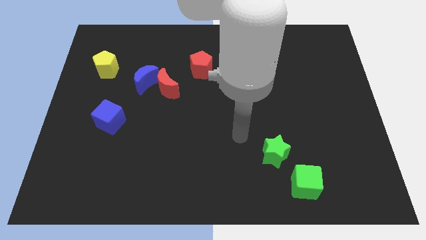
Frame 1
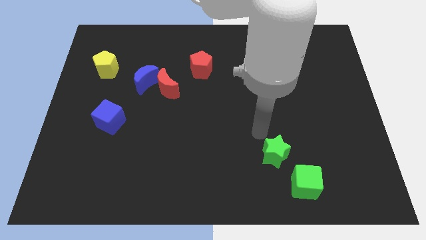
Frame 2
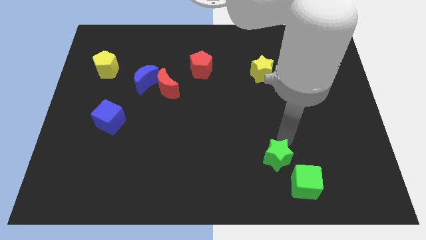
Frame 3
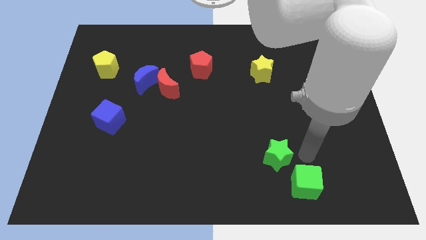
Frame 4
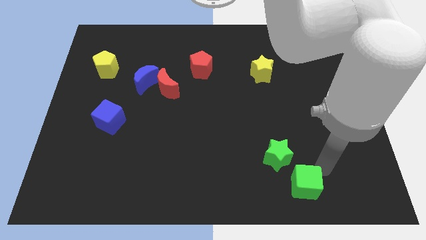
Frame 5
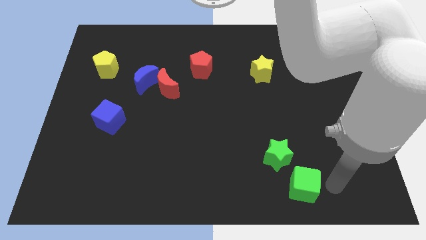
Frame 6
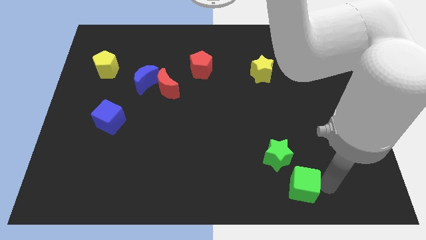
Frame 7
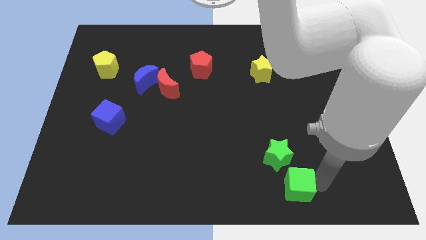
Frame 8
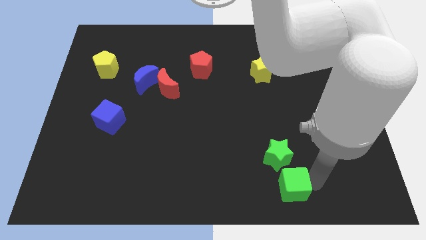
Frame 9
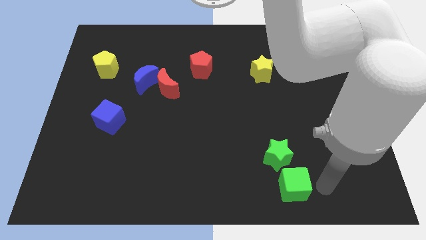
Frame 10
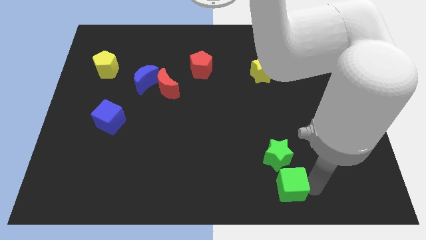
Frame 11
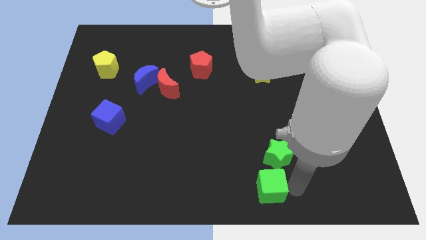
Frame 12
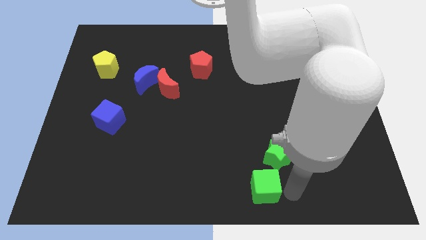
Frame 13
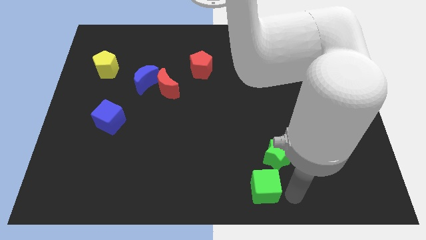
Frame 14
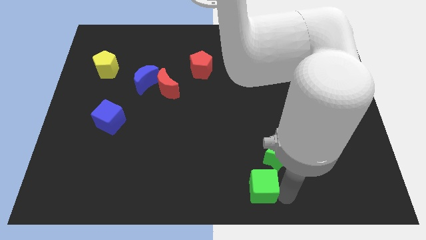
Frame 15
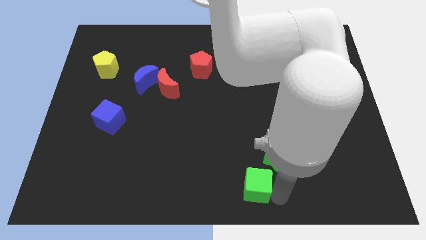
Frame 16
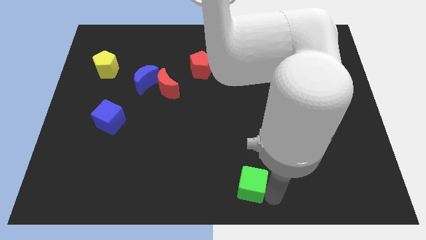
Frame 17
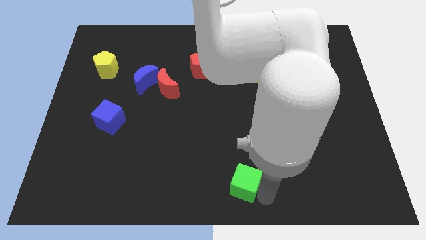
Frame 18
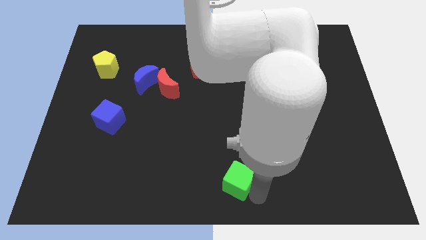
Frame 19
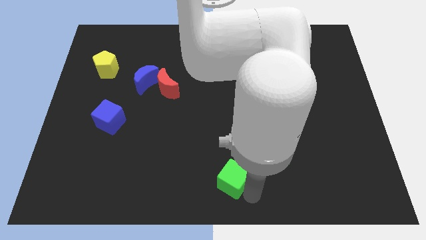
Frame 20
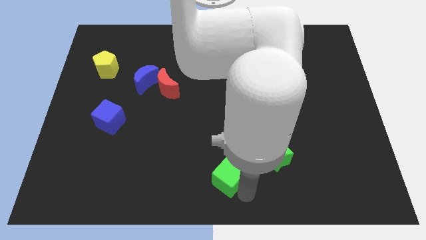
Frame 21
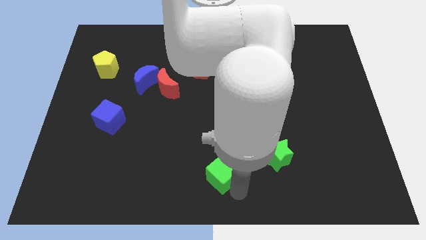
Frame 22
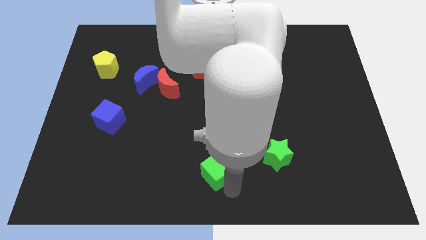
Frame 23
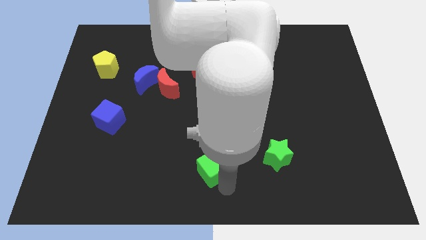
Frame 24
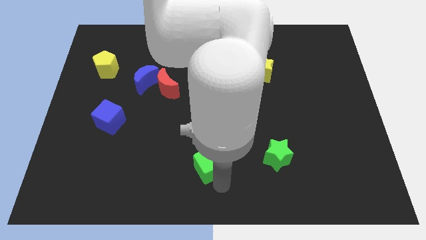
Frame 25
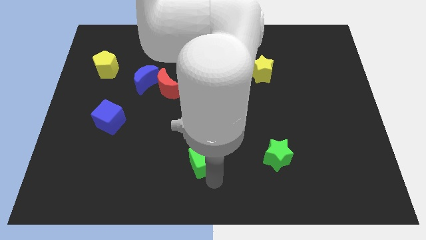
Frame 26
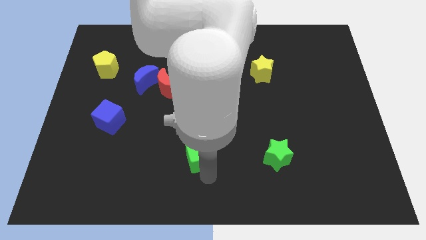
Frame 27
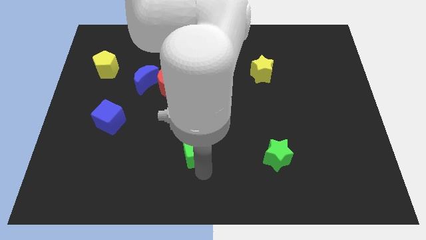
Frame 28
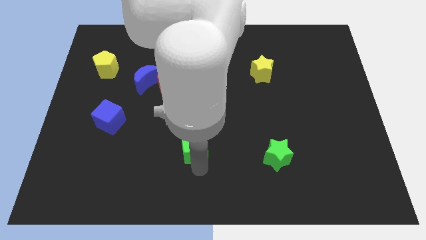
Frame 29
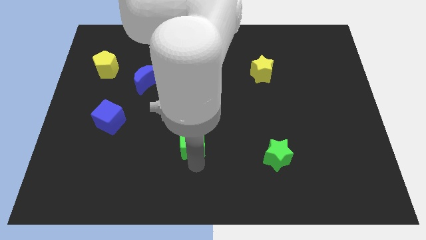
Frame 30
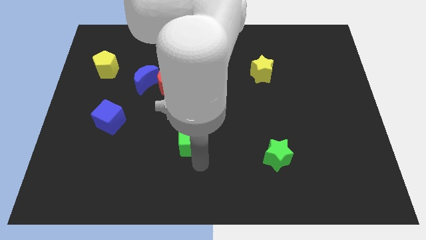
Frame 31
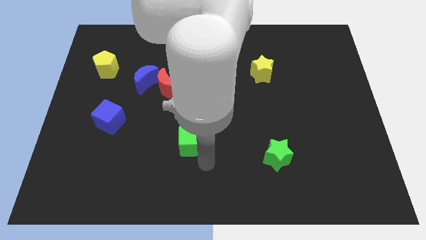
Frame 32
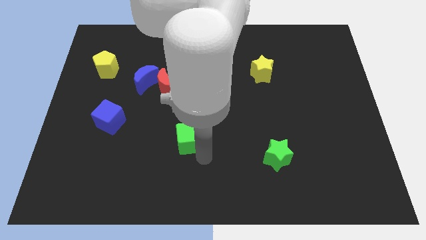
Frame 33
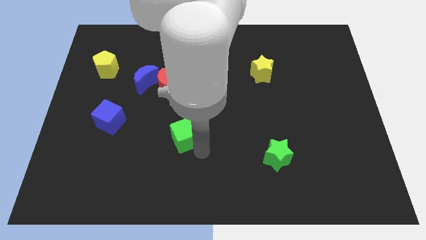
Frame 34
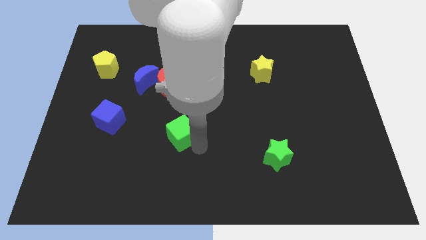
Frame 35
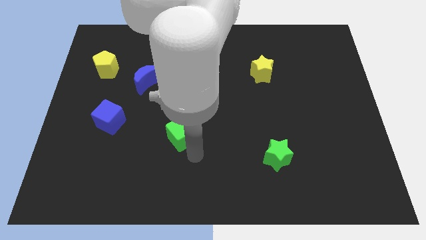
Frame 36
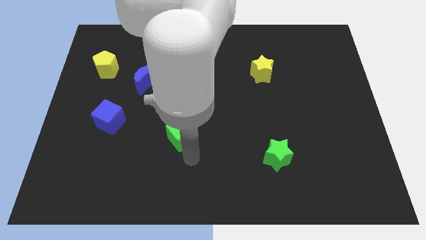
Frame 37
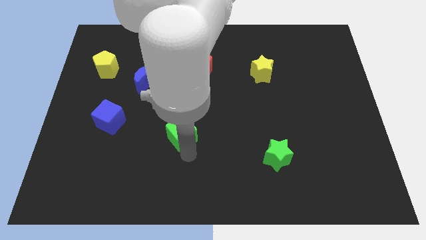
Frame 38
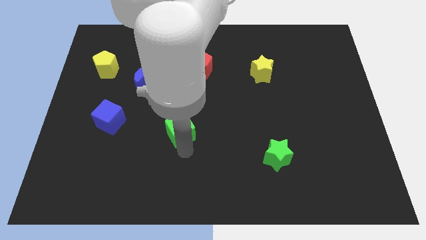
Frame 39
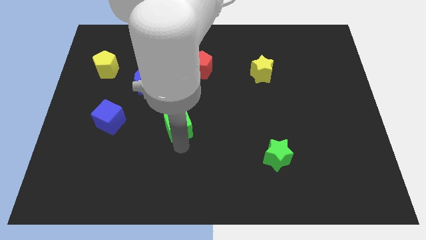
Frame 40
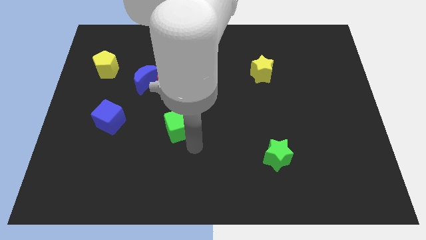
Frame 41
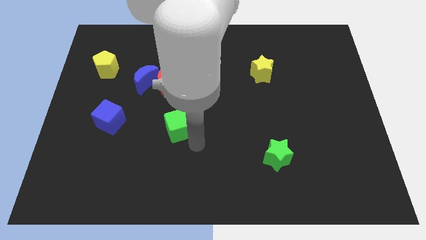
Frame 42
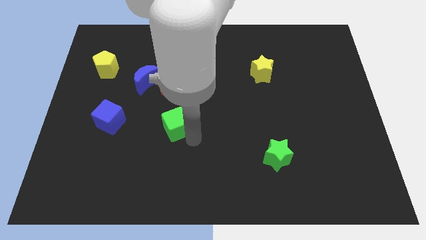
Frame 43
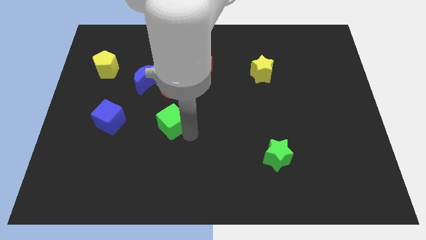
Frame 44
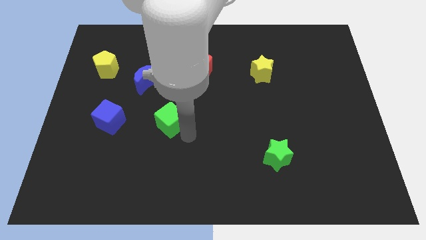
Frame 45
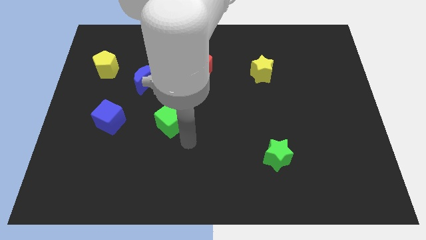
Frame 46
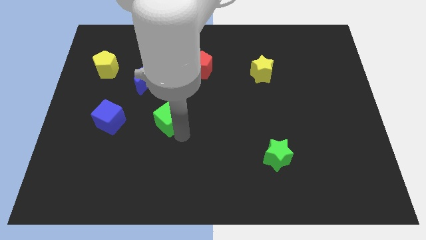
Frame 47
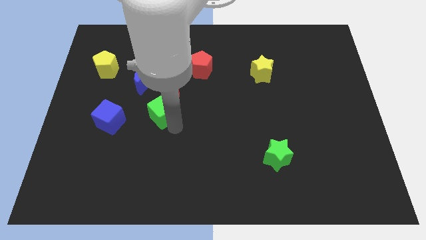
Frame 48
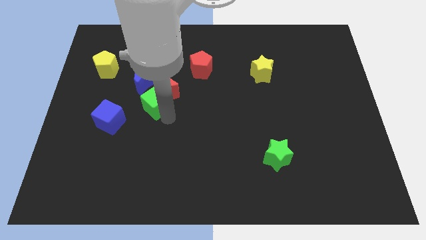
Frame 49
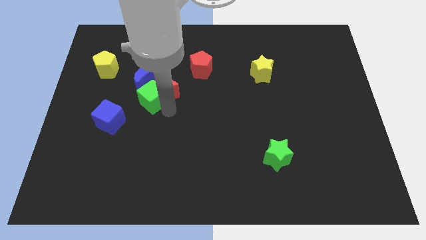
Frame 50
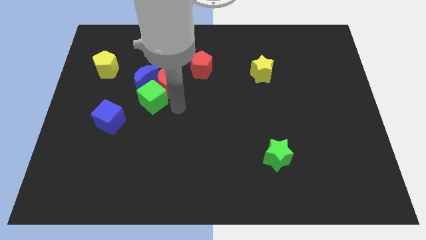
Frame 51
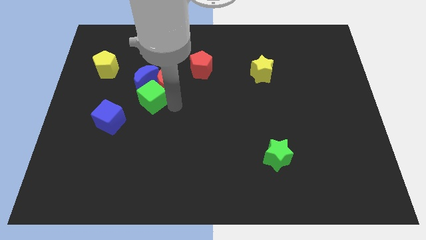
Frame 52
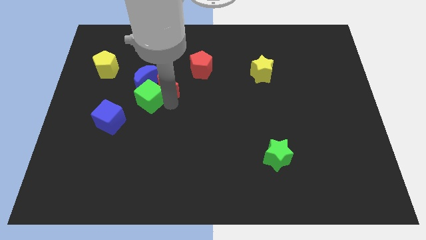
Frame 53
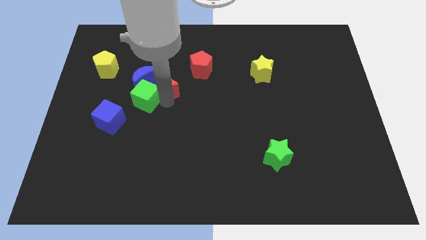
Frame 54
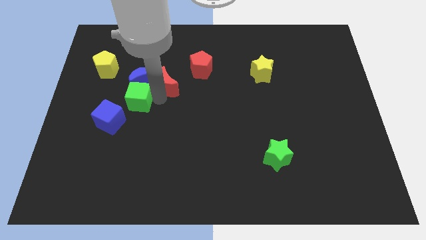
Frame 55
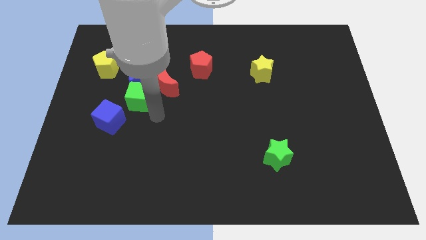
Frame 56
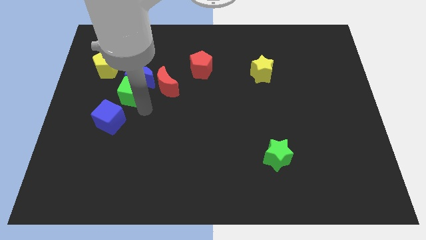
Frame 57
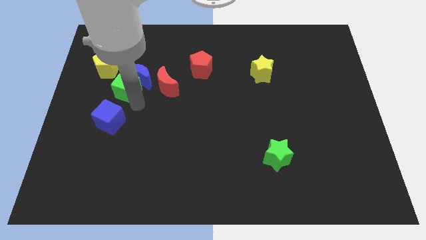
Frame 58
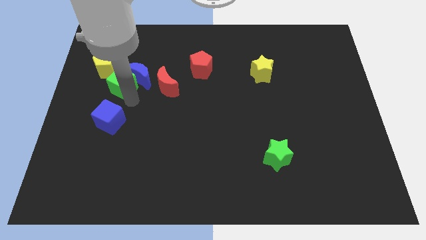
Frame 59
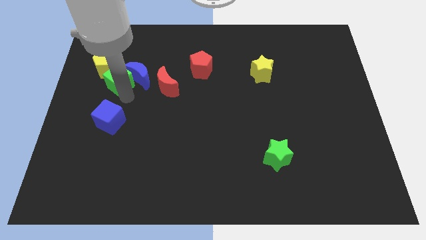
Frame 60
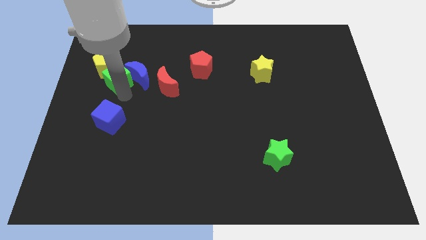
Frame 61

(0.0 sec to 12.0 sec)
put the green cube towards the yellow pentagon

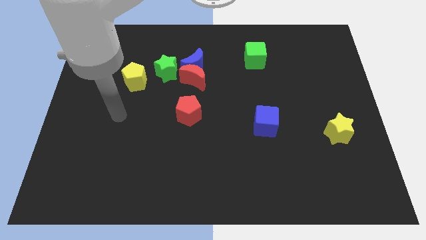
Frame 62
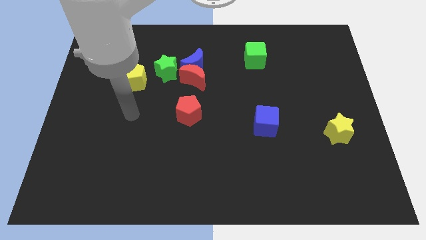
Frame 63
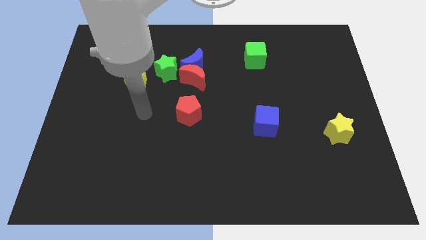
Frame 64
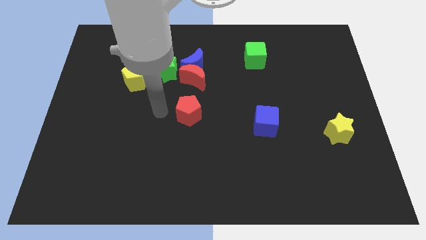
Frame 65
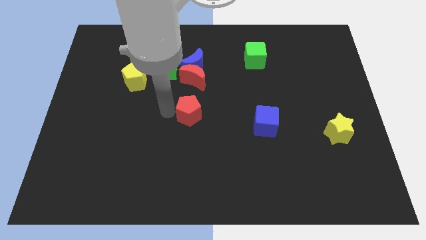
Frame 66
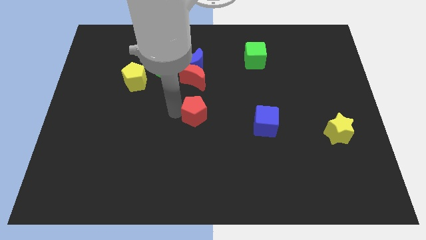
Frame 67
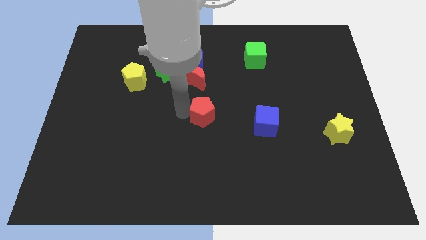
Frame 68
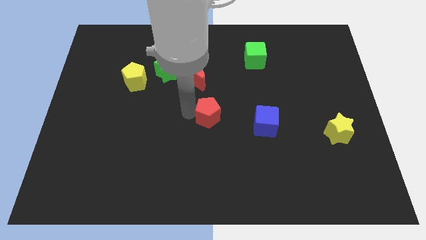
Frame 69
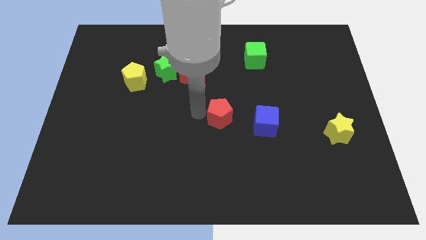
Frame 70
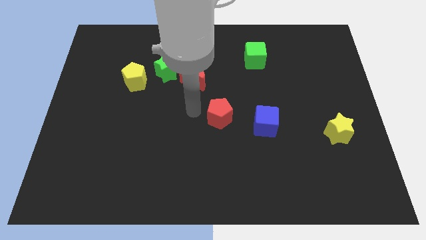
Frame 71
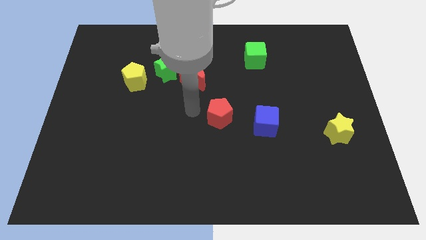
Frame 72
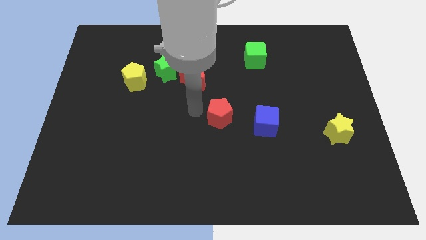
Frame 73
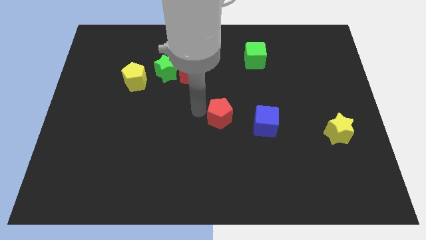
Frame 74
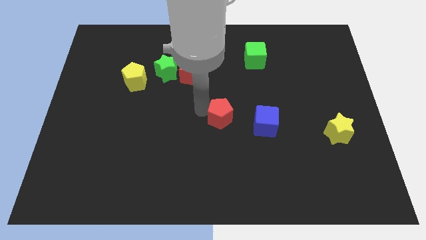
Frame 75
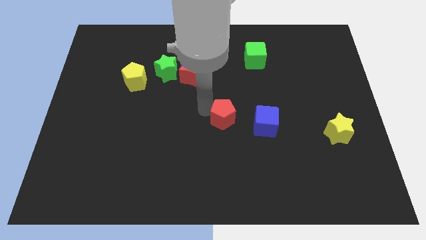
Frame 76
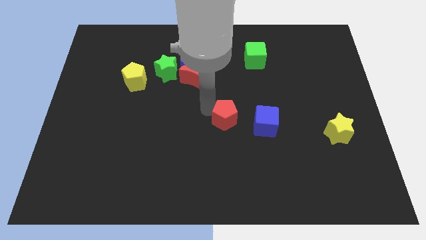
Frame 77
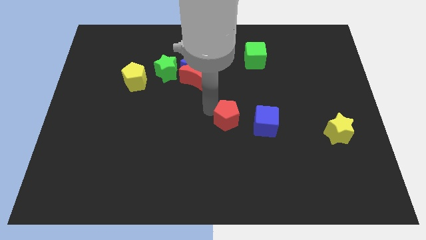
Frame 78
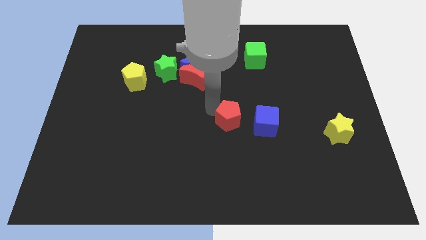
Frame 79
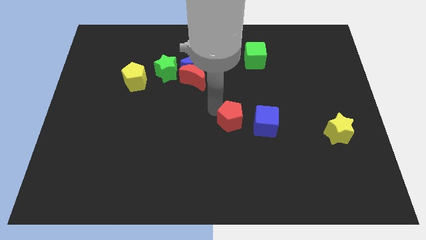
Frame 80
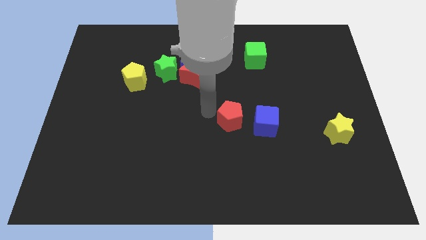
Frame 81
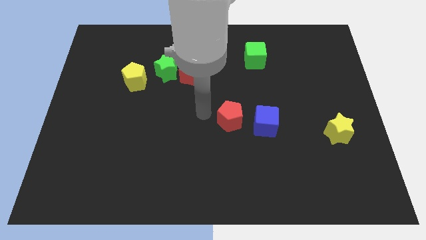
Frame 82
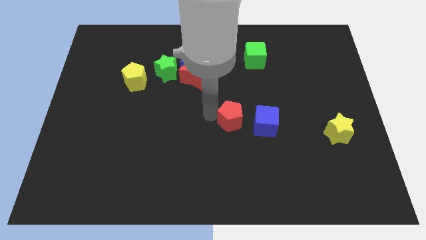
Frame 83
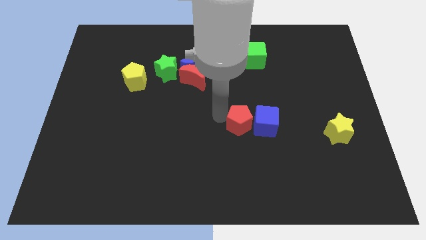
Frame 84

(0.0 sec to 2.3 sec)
move the red pentagon next to the blue cube

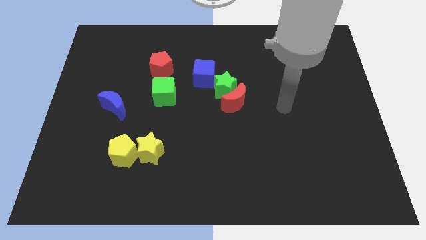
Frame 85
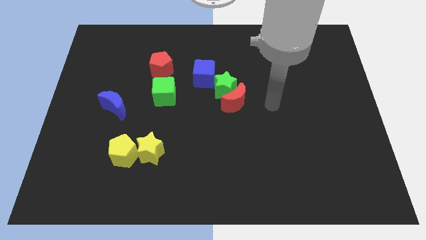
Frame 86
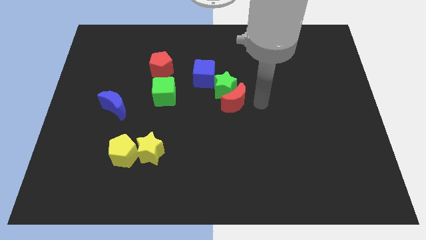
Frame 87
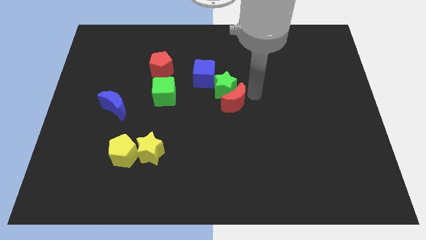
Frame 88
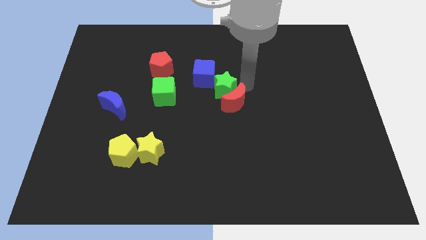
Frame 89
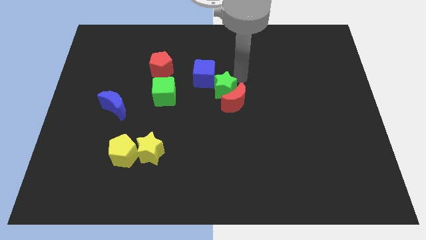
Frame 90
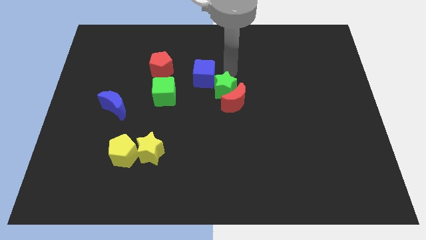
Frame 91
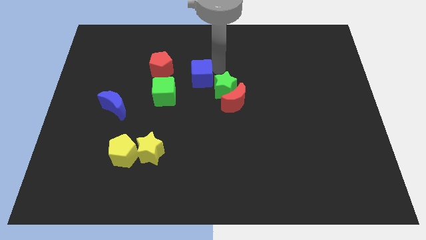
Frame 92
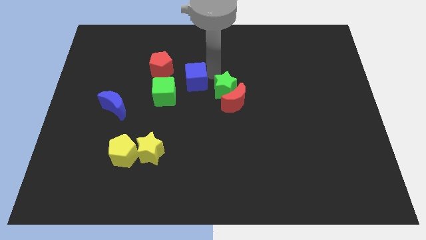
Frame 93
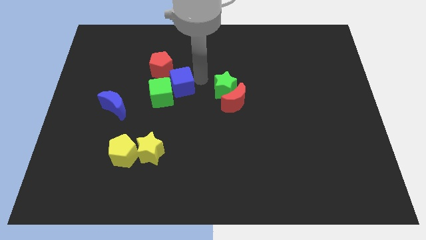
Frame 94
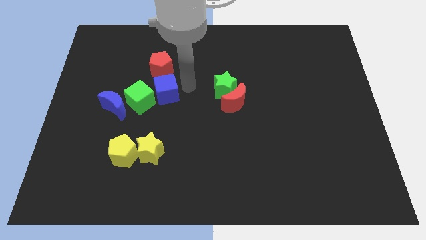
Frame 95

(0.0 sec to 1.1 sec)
put the green cube to the blue moon
